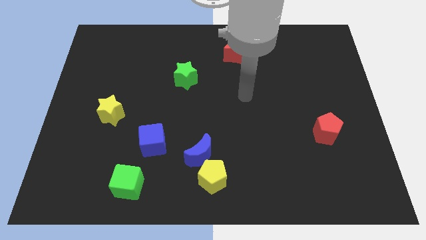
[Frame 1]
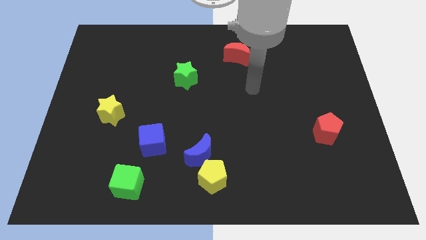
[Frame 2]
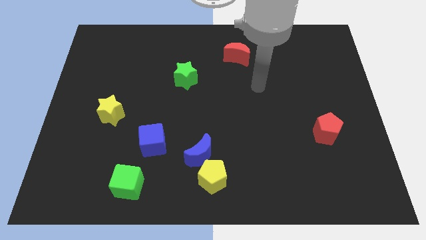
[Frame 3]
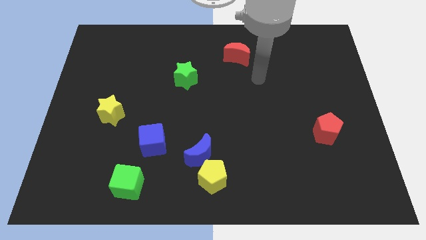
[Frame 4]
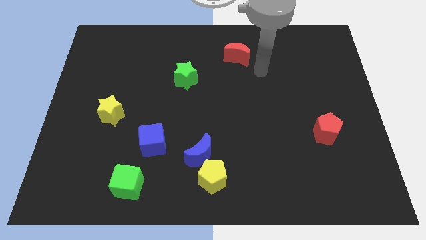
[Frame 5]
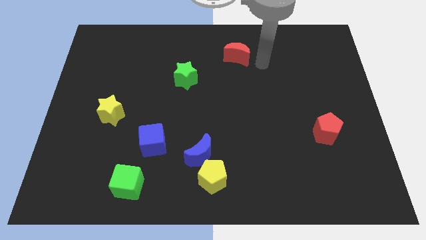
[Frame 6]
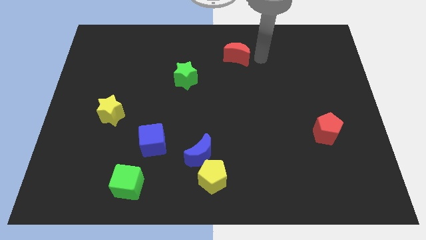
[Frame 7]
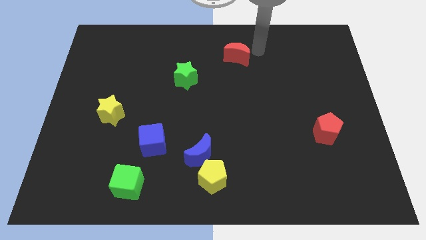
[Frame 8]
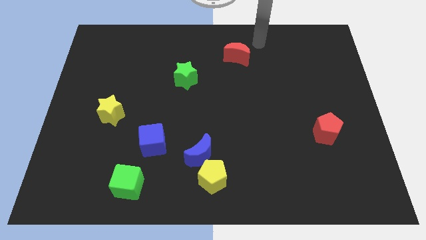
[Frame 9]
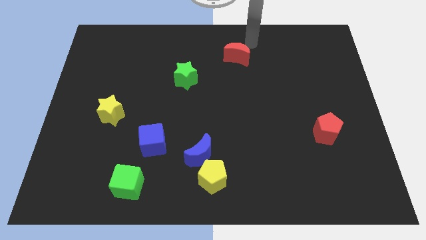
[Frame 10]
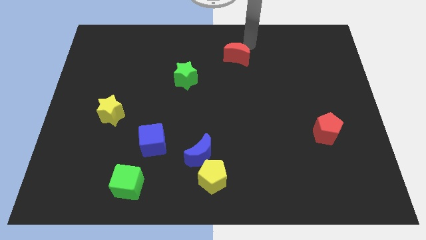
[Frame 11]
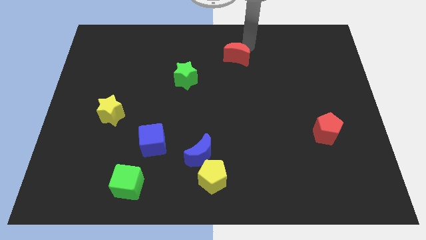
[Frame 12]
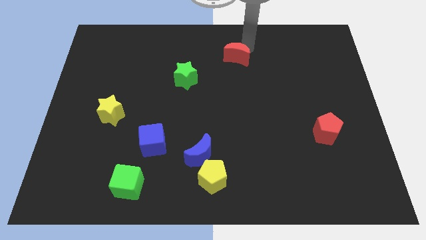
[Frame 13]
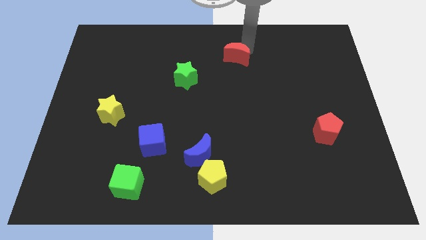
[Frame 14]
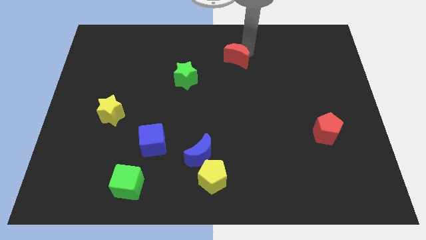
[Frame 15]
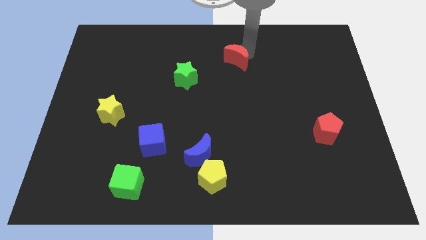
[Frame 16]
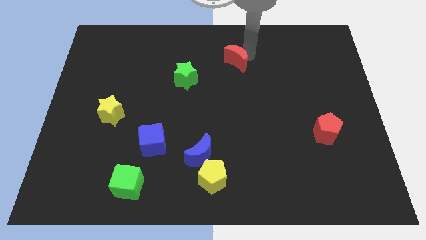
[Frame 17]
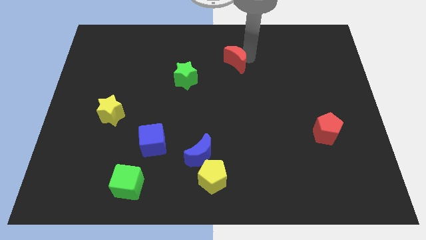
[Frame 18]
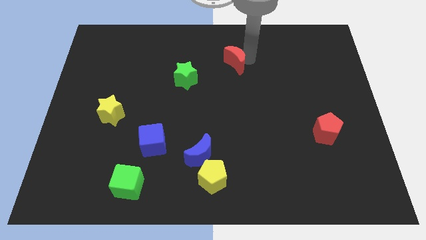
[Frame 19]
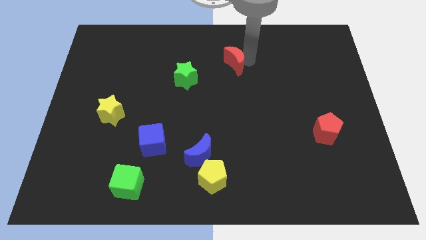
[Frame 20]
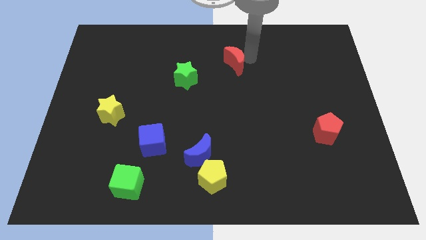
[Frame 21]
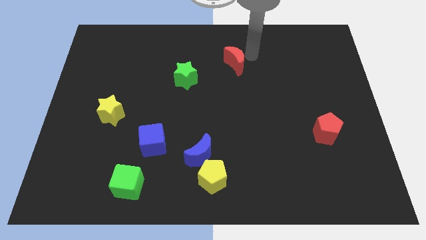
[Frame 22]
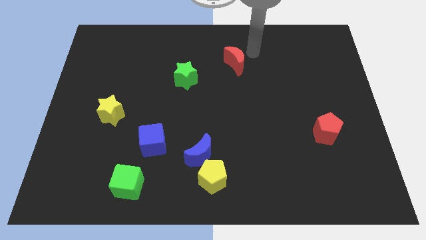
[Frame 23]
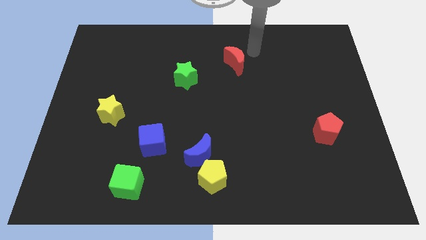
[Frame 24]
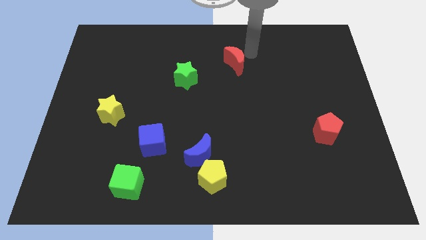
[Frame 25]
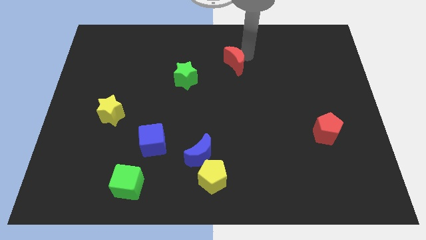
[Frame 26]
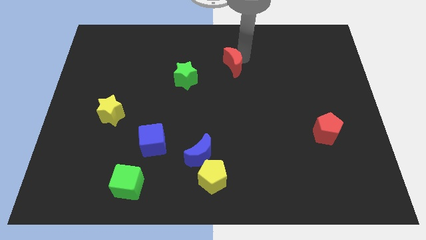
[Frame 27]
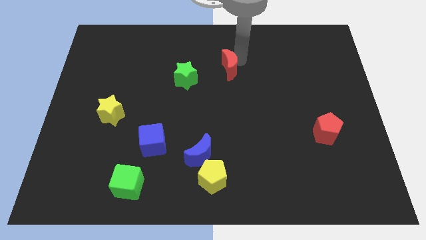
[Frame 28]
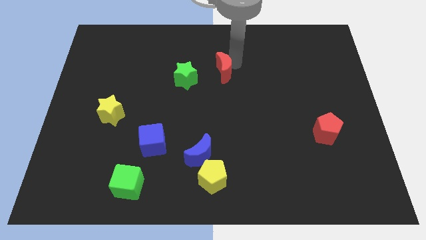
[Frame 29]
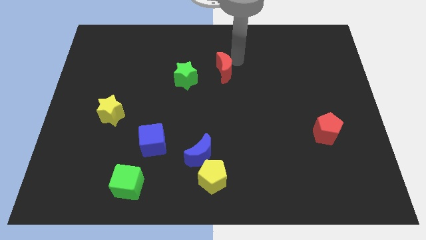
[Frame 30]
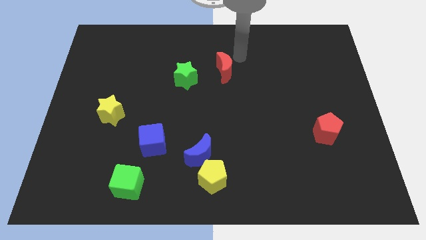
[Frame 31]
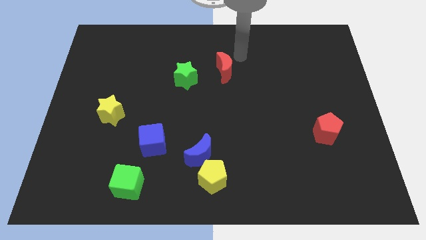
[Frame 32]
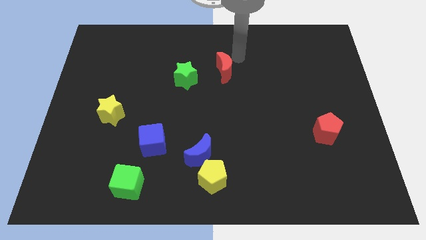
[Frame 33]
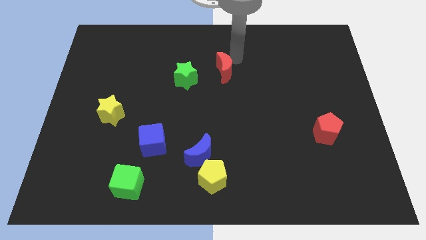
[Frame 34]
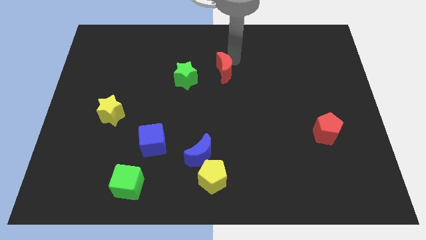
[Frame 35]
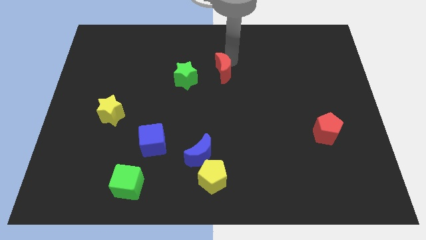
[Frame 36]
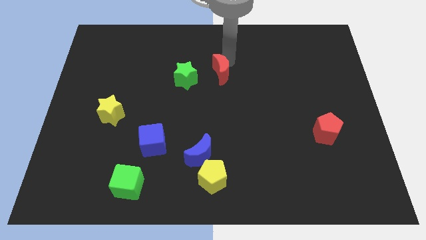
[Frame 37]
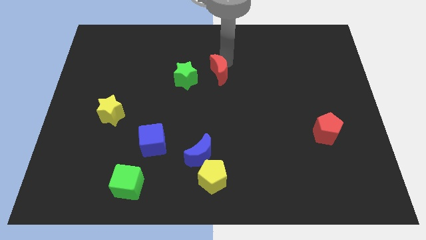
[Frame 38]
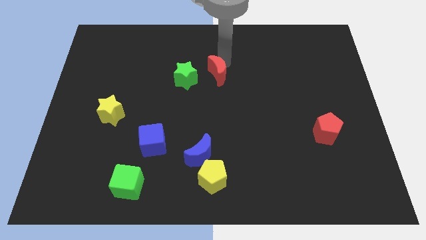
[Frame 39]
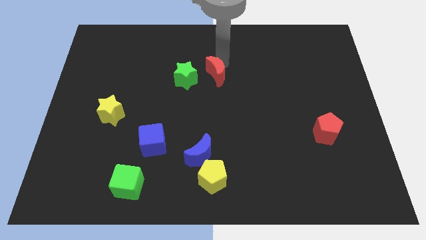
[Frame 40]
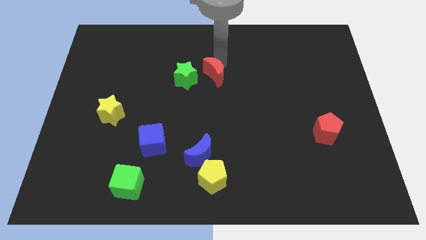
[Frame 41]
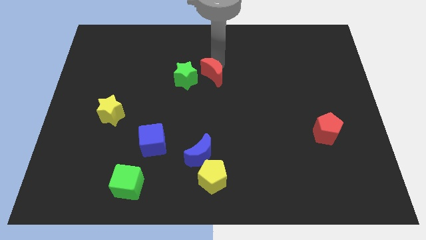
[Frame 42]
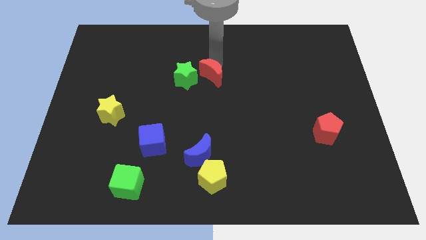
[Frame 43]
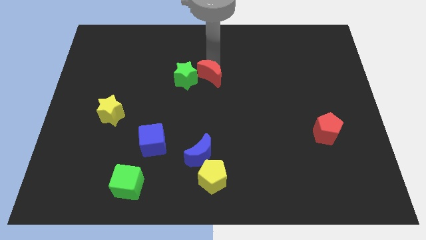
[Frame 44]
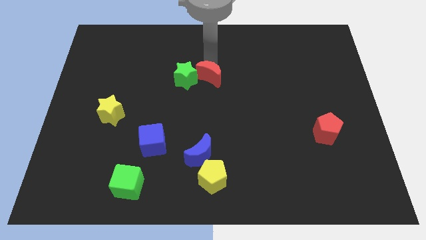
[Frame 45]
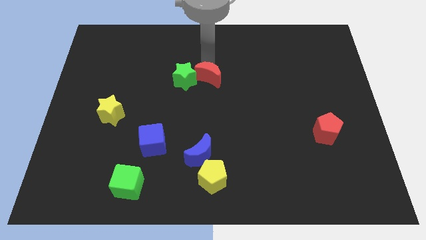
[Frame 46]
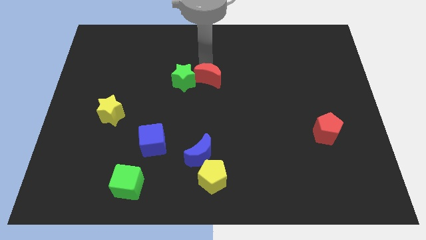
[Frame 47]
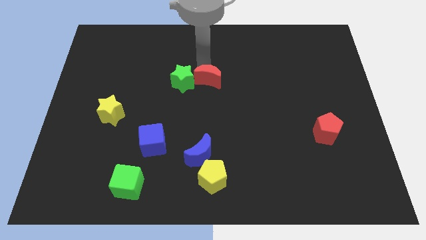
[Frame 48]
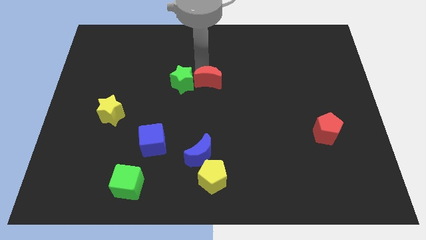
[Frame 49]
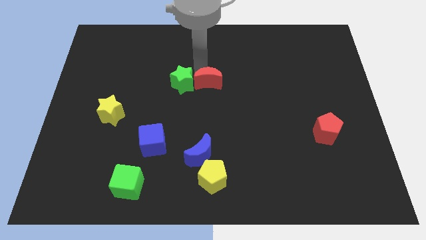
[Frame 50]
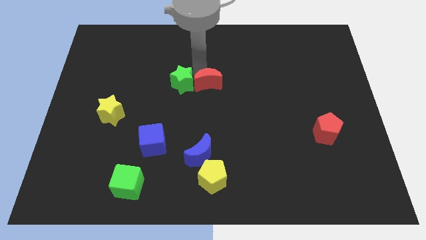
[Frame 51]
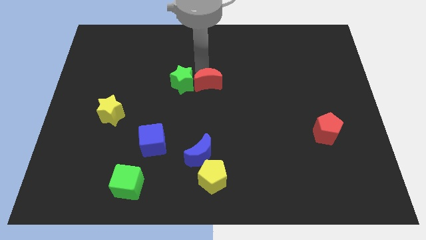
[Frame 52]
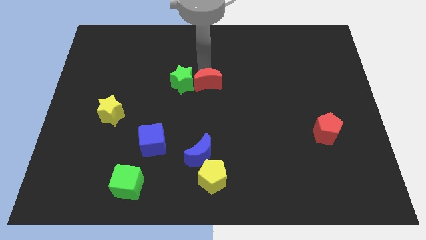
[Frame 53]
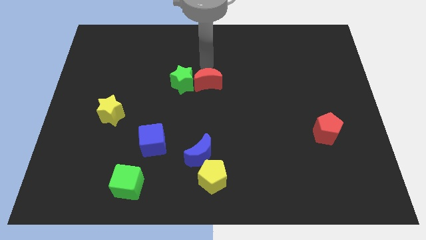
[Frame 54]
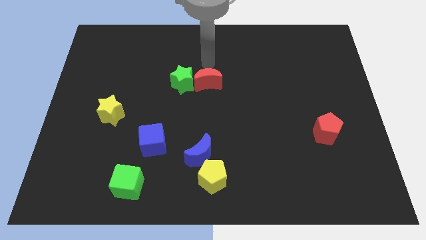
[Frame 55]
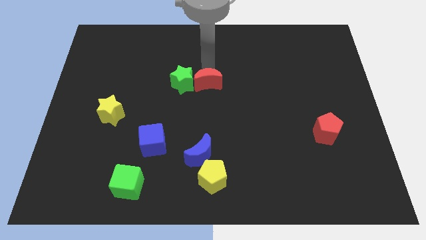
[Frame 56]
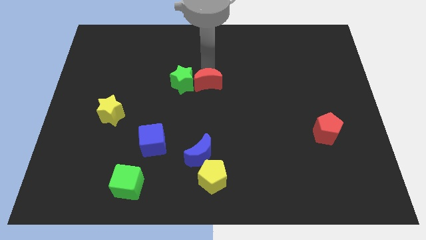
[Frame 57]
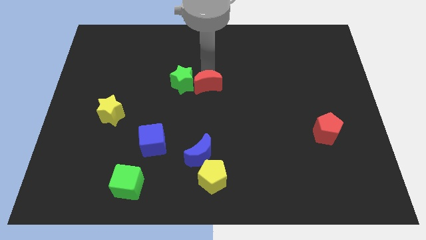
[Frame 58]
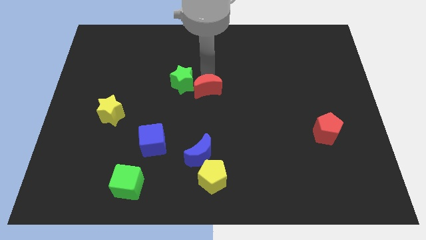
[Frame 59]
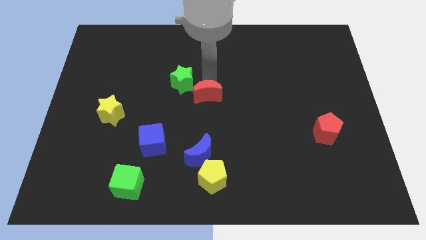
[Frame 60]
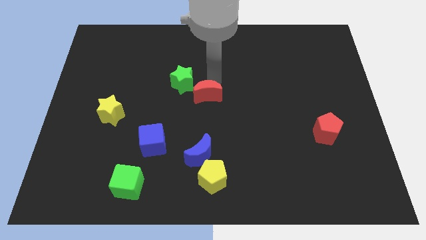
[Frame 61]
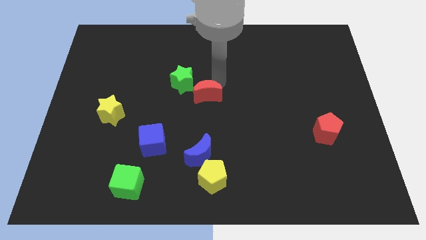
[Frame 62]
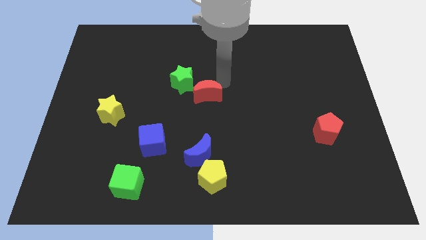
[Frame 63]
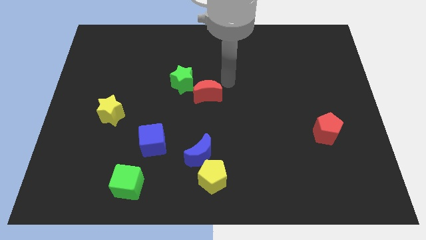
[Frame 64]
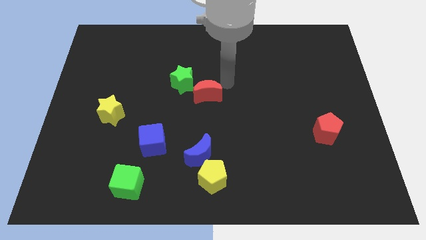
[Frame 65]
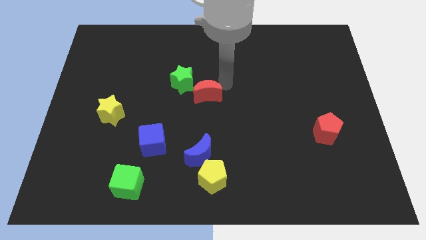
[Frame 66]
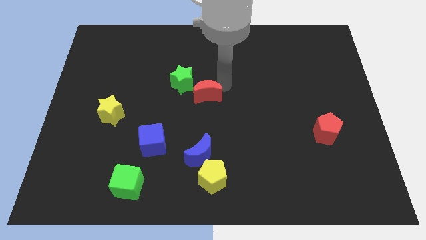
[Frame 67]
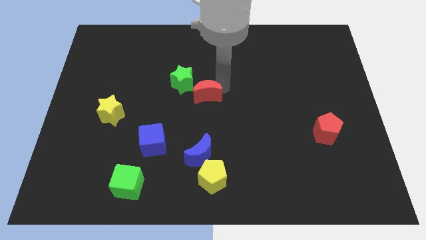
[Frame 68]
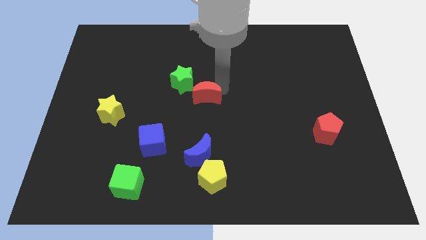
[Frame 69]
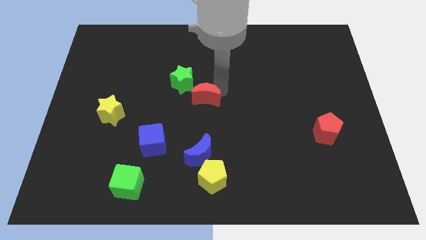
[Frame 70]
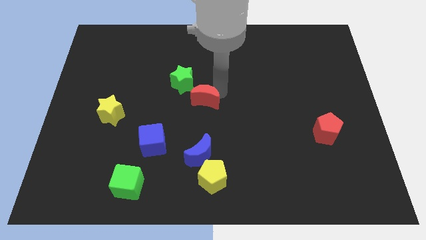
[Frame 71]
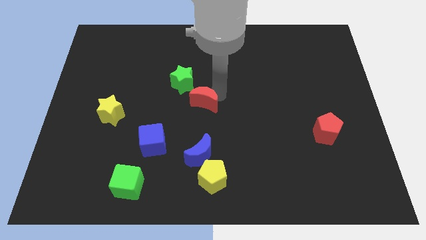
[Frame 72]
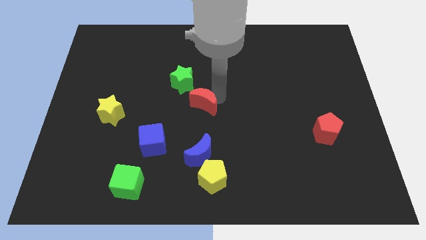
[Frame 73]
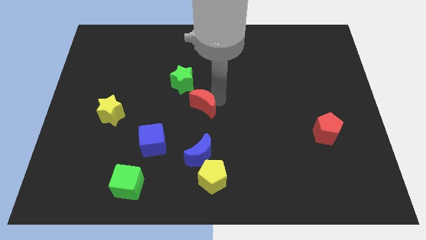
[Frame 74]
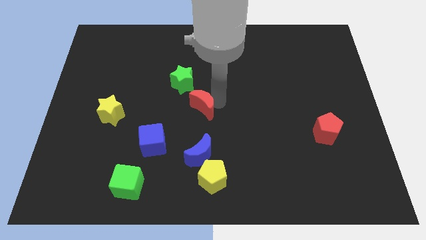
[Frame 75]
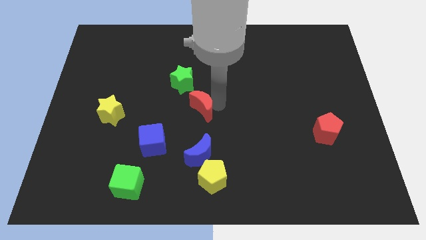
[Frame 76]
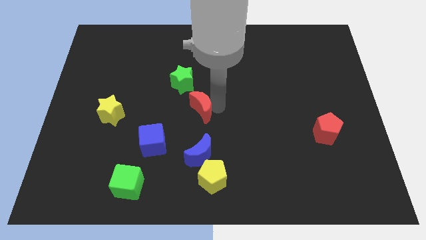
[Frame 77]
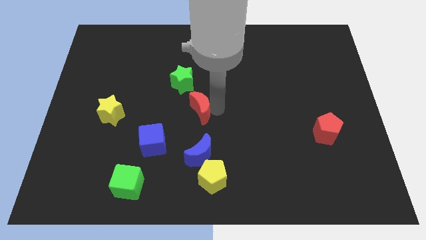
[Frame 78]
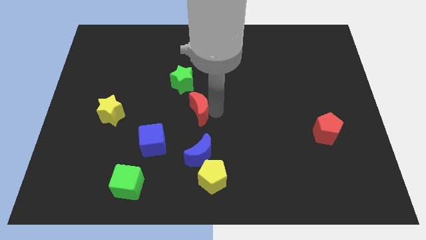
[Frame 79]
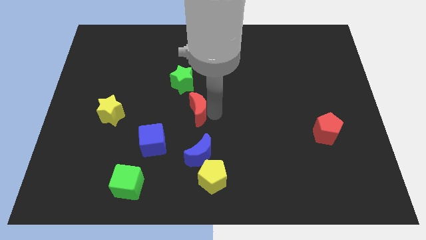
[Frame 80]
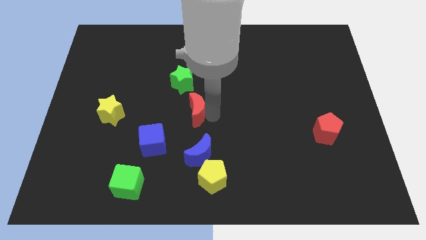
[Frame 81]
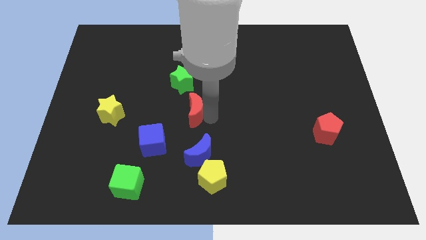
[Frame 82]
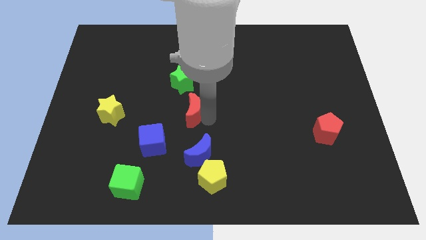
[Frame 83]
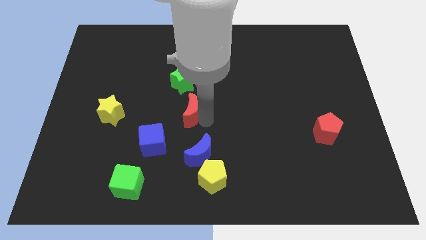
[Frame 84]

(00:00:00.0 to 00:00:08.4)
push the red moon downwards and then left
